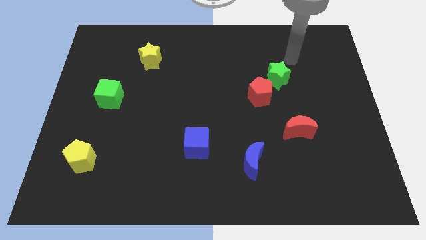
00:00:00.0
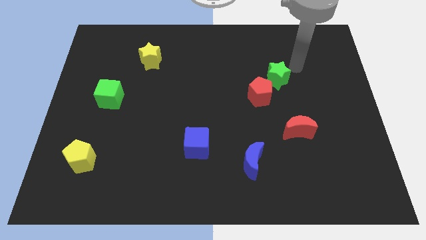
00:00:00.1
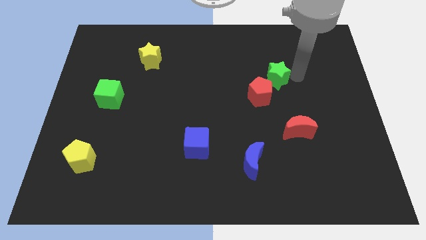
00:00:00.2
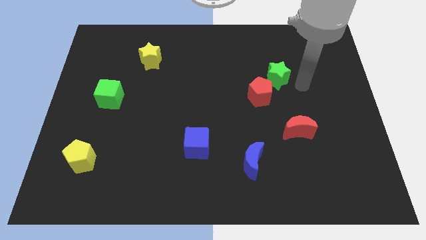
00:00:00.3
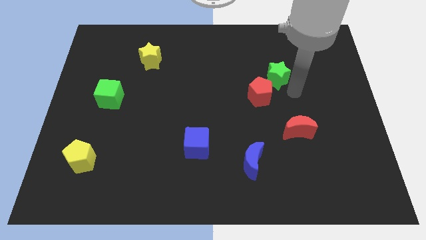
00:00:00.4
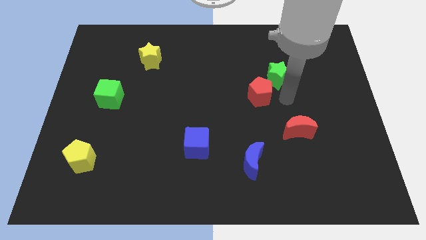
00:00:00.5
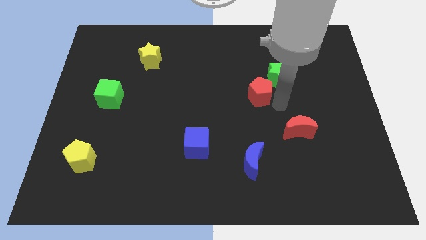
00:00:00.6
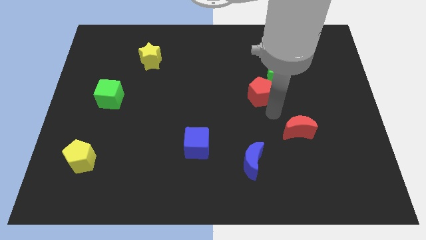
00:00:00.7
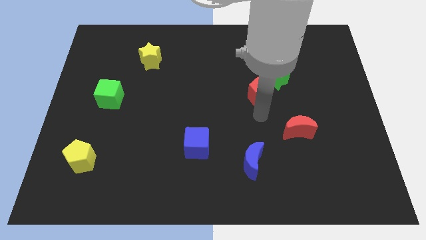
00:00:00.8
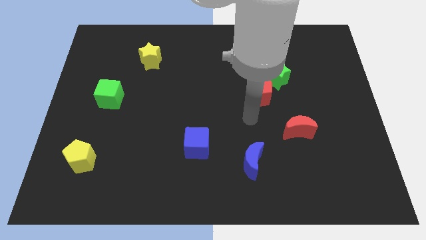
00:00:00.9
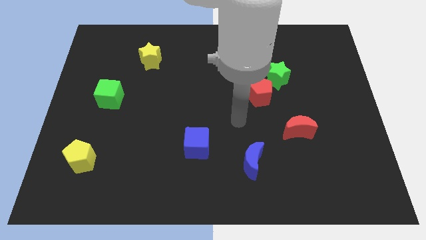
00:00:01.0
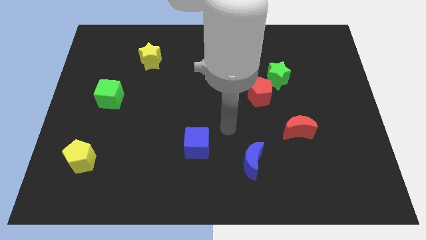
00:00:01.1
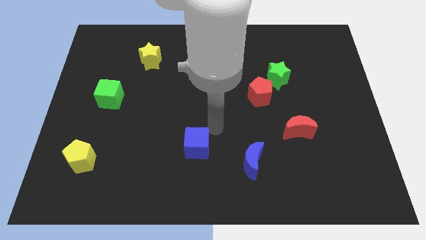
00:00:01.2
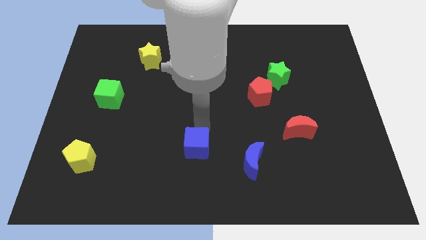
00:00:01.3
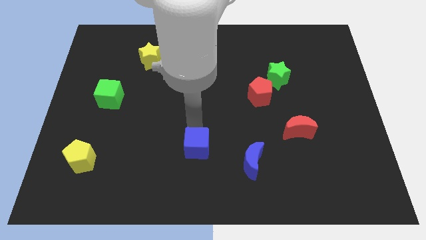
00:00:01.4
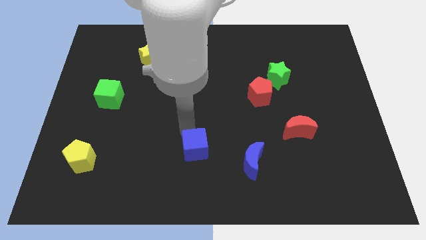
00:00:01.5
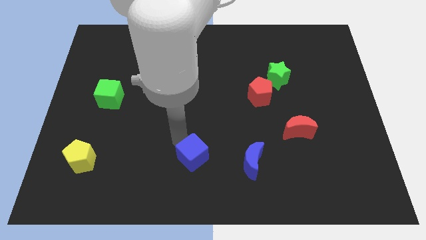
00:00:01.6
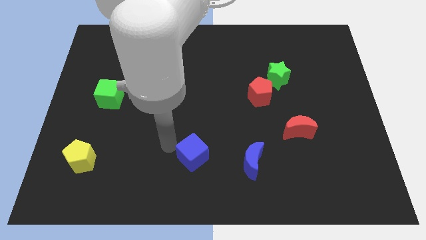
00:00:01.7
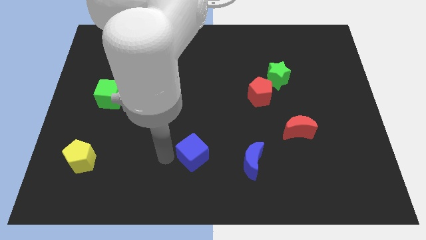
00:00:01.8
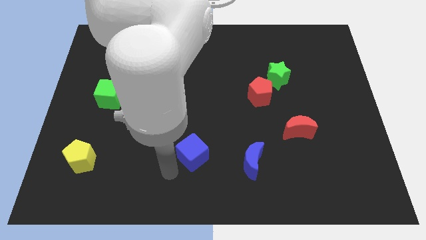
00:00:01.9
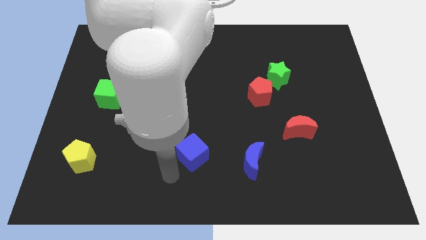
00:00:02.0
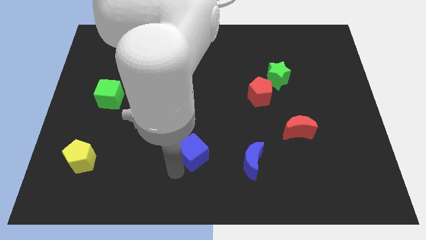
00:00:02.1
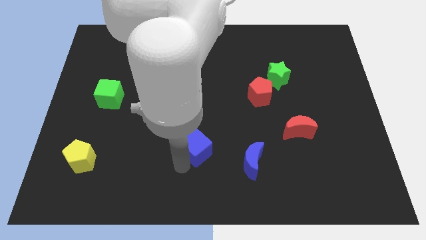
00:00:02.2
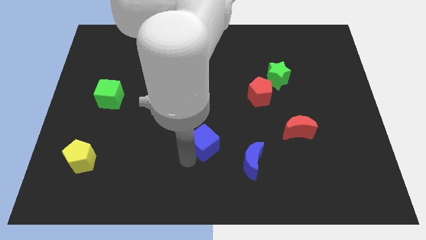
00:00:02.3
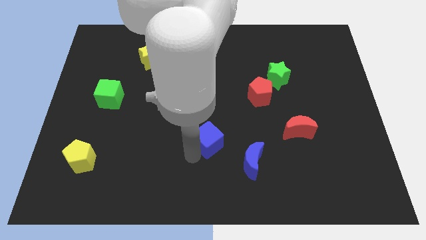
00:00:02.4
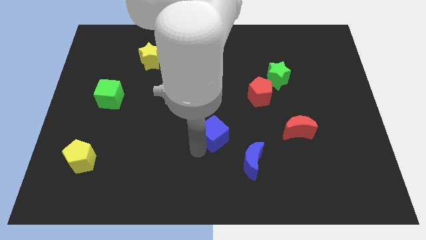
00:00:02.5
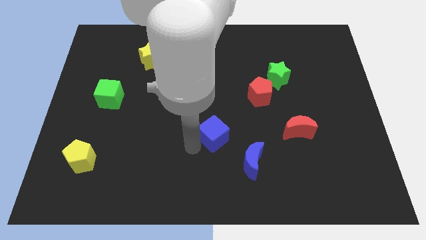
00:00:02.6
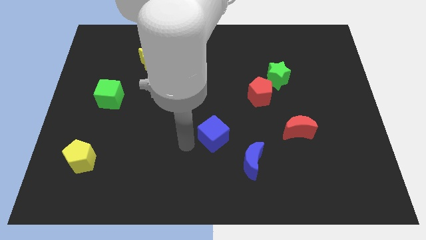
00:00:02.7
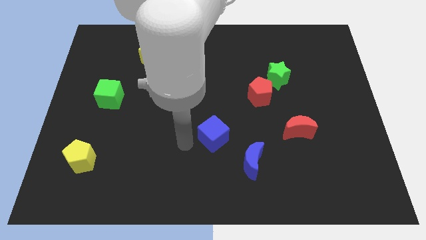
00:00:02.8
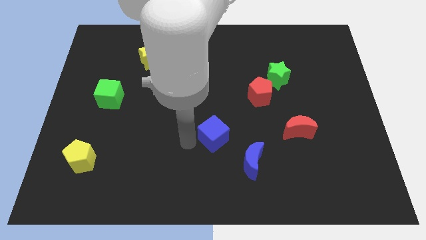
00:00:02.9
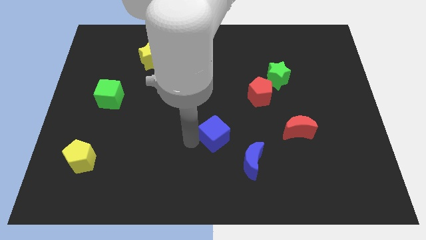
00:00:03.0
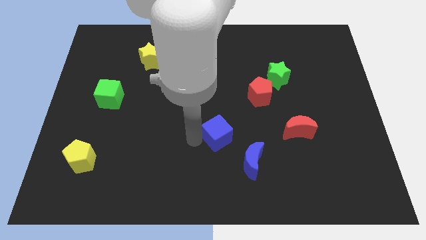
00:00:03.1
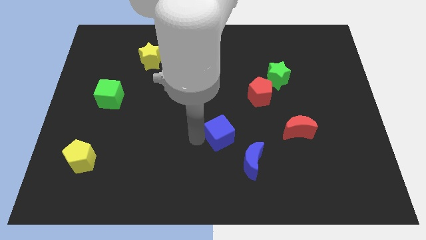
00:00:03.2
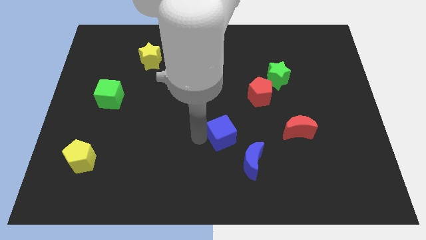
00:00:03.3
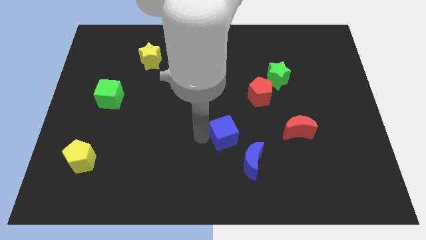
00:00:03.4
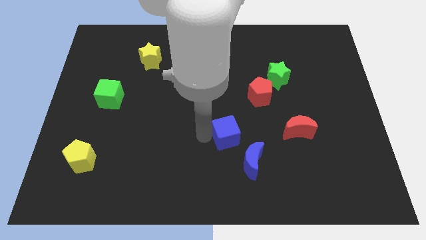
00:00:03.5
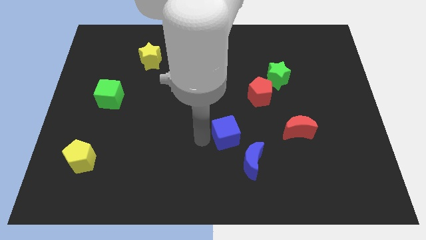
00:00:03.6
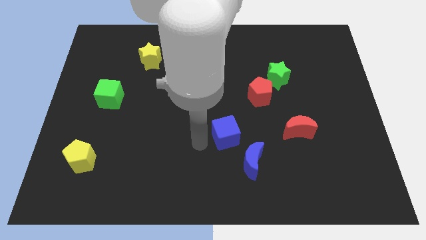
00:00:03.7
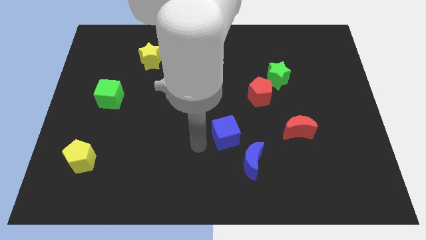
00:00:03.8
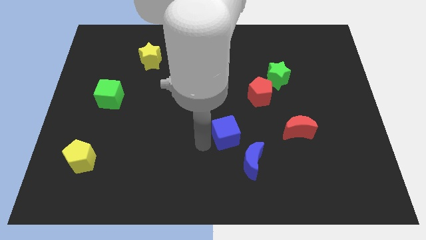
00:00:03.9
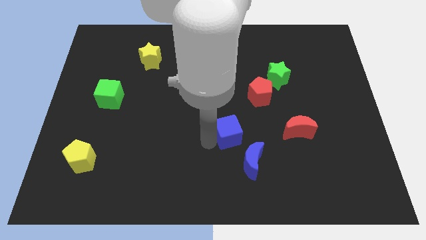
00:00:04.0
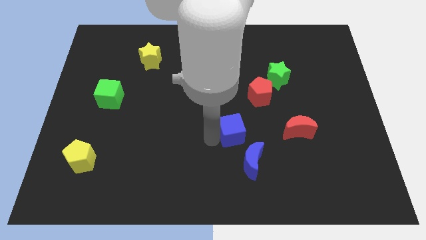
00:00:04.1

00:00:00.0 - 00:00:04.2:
slide the blue cube a little bit right

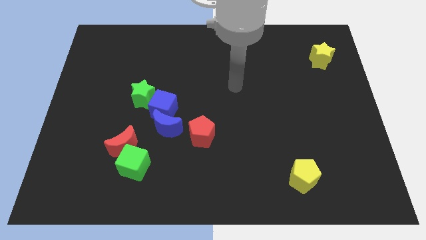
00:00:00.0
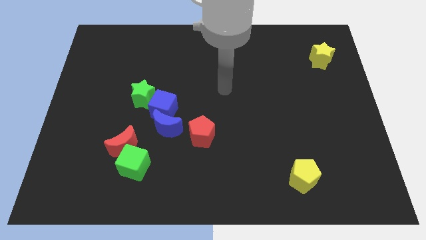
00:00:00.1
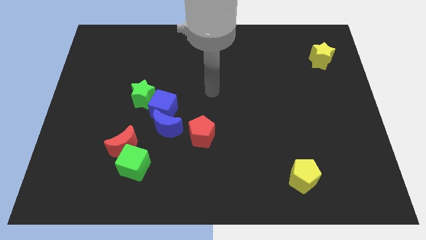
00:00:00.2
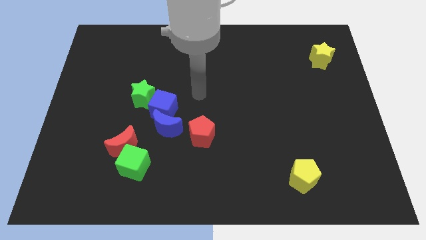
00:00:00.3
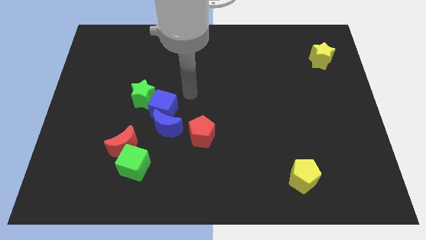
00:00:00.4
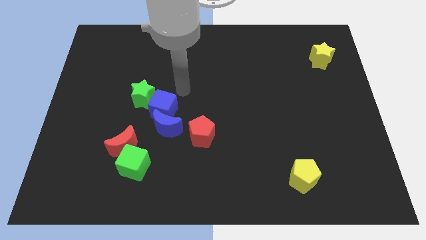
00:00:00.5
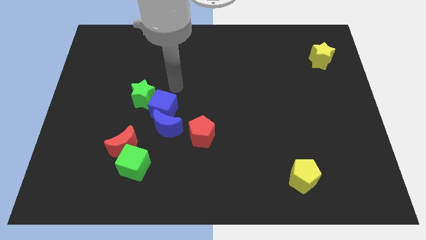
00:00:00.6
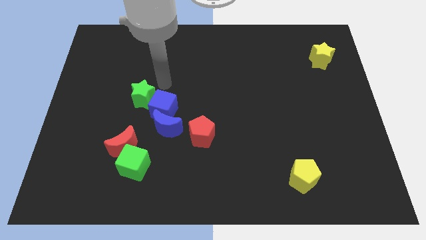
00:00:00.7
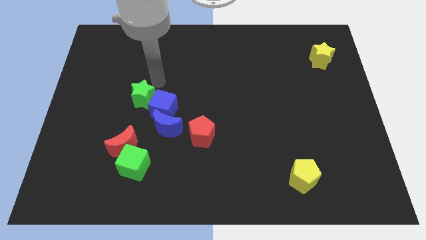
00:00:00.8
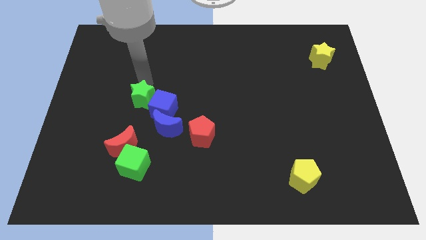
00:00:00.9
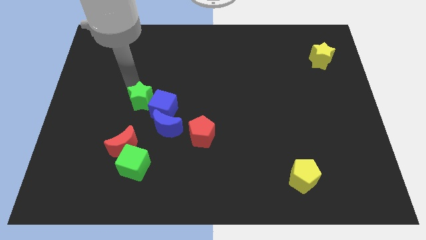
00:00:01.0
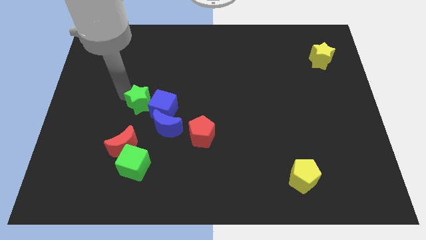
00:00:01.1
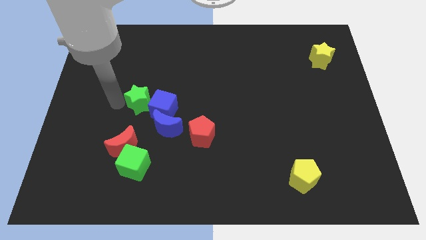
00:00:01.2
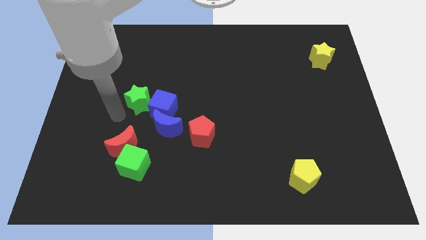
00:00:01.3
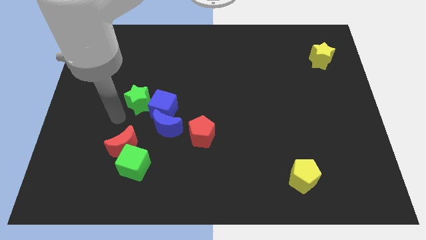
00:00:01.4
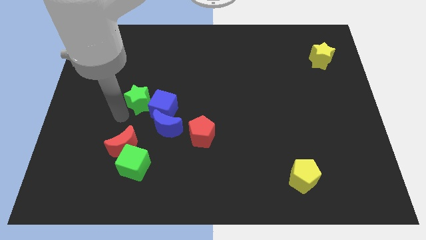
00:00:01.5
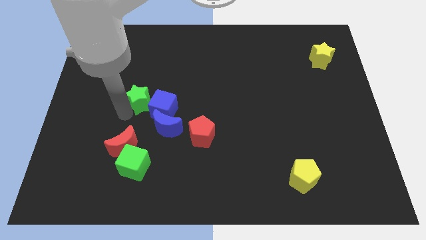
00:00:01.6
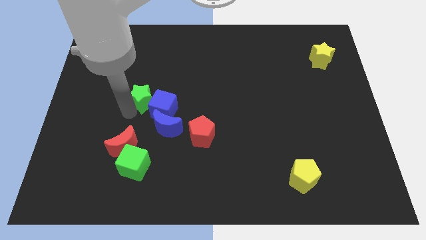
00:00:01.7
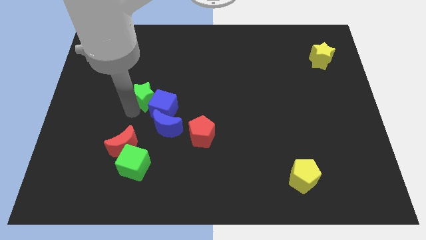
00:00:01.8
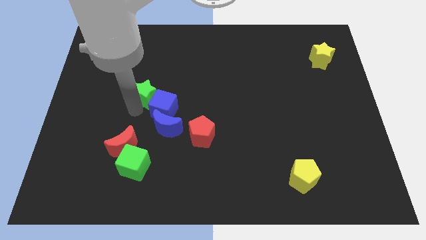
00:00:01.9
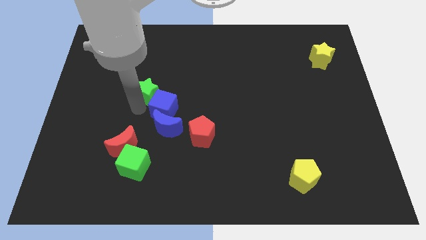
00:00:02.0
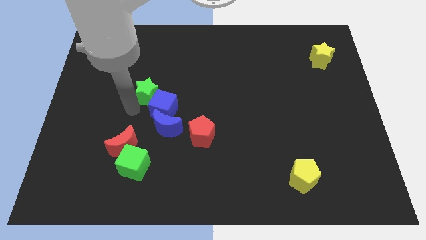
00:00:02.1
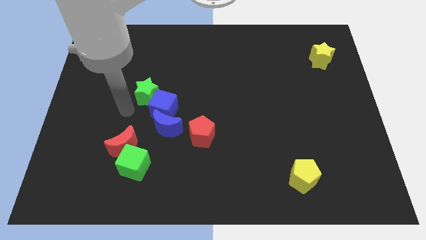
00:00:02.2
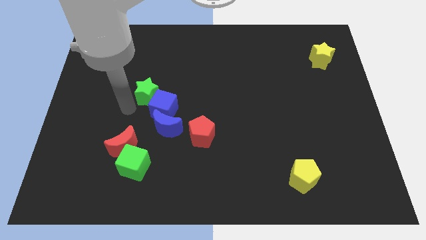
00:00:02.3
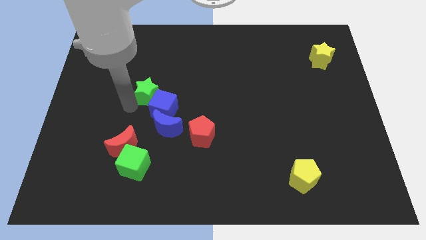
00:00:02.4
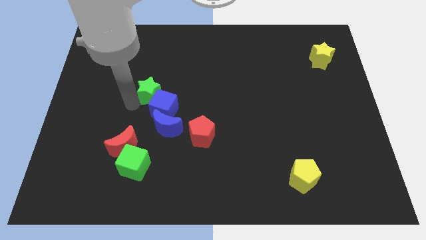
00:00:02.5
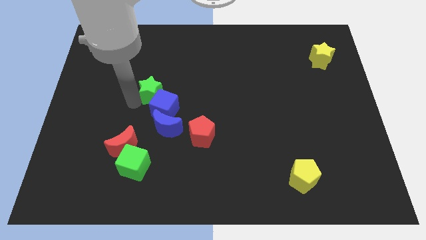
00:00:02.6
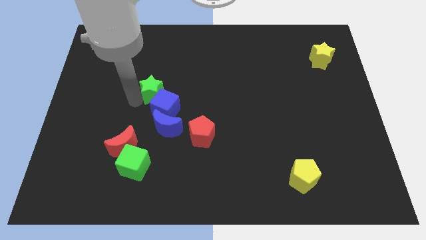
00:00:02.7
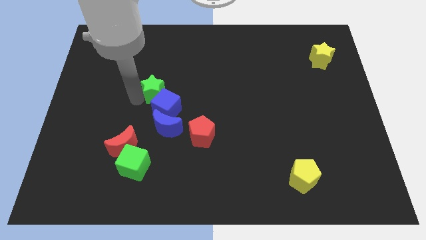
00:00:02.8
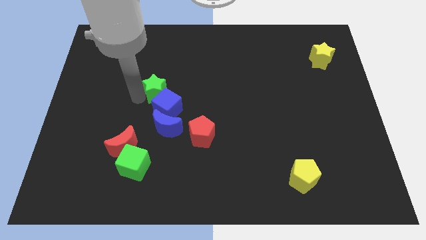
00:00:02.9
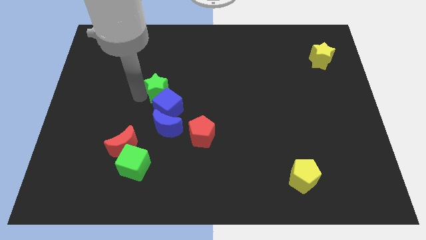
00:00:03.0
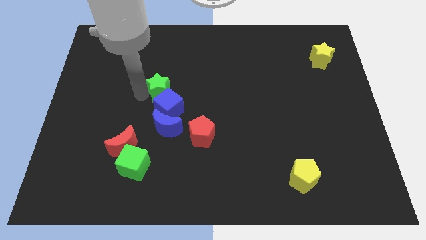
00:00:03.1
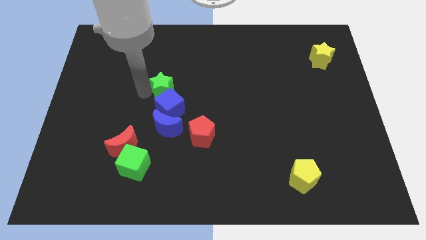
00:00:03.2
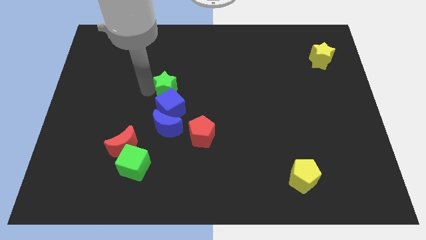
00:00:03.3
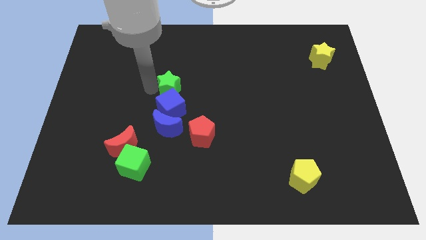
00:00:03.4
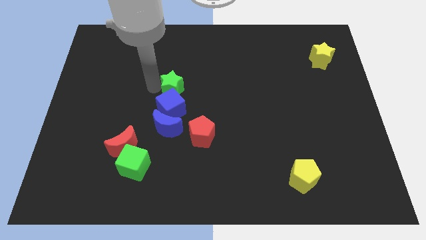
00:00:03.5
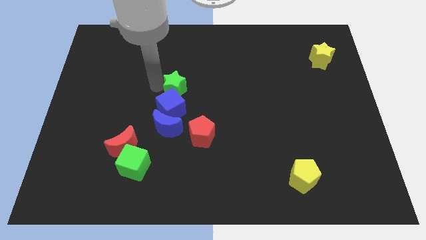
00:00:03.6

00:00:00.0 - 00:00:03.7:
slightly push the green star upwards and then right
